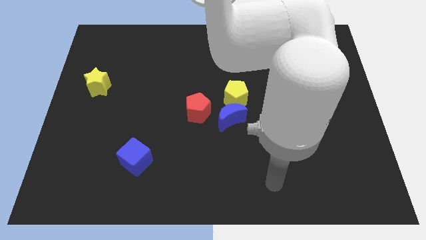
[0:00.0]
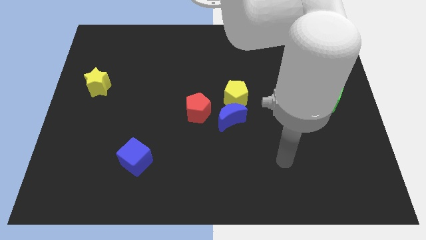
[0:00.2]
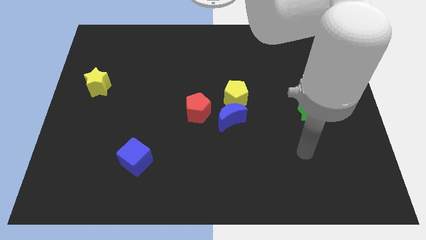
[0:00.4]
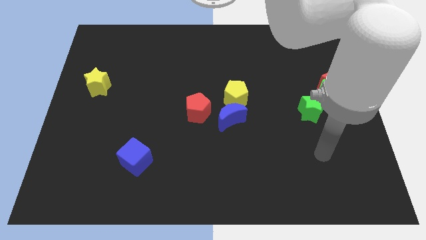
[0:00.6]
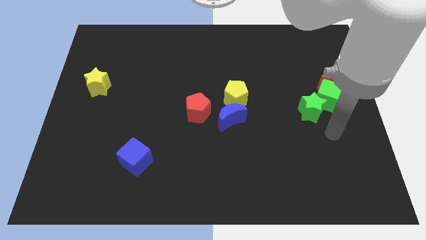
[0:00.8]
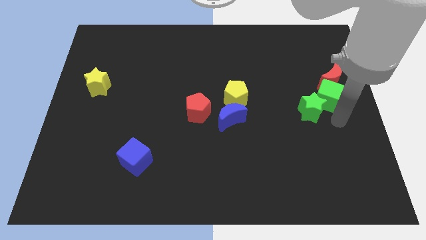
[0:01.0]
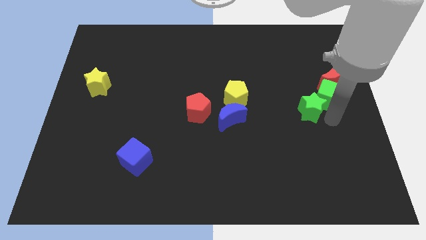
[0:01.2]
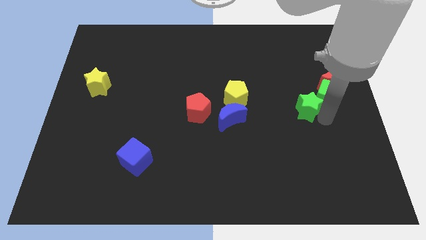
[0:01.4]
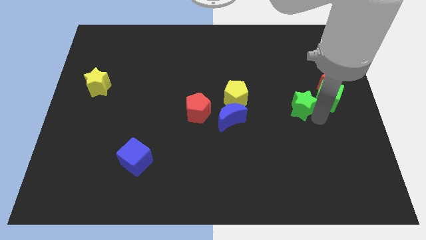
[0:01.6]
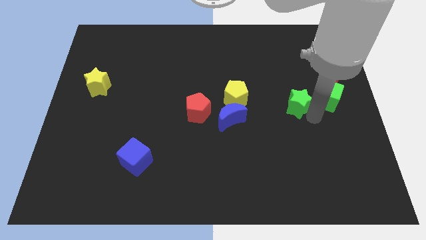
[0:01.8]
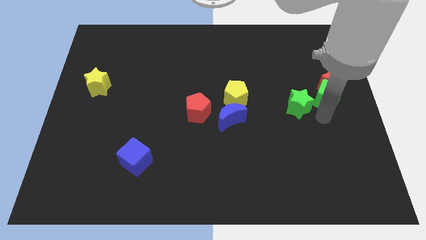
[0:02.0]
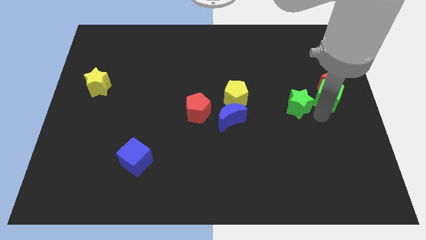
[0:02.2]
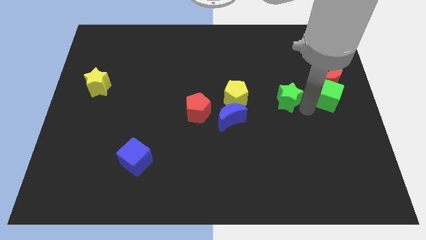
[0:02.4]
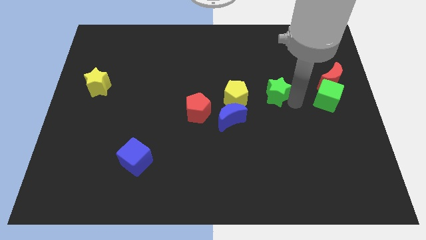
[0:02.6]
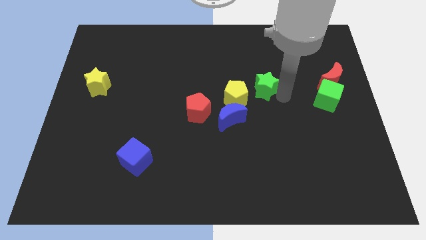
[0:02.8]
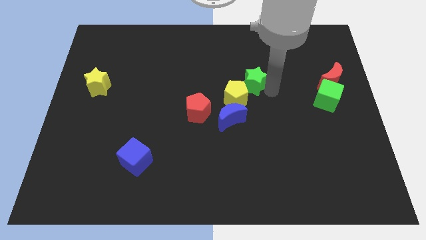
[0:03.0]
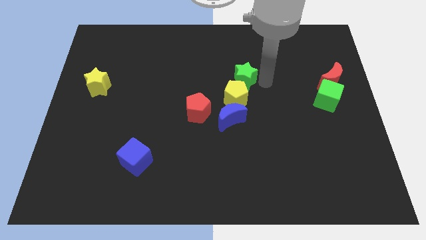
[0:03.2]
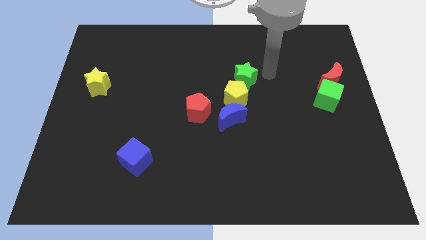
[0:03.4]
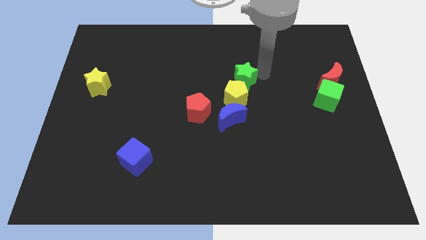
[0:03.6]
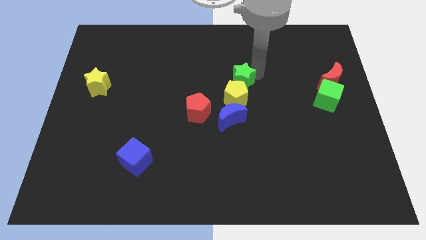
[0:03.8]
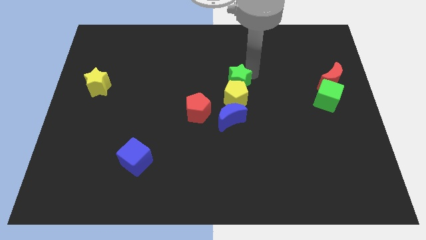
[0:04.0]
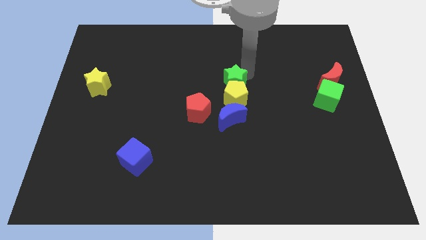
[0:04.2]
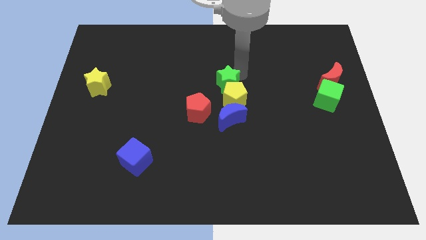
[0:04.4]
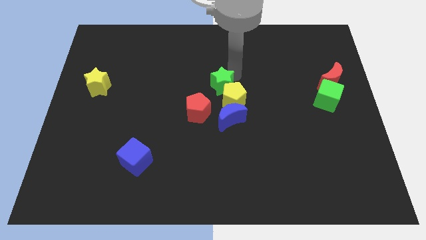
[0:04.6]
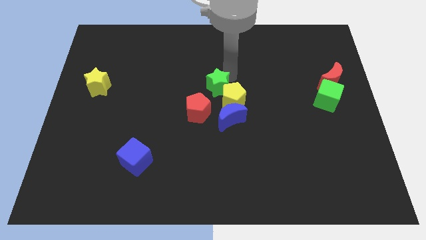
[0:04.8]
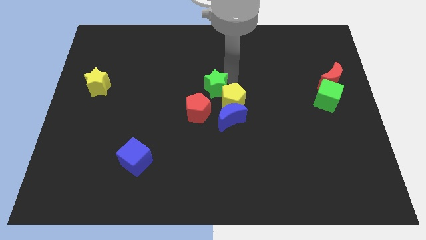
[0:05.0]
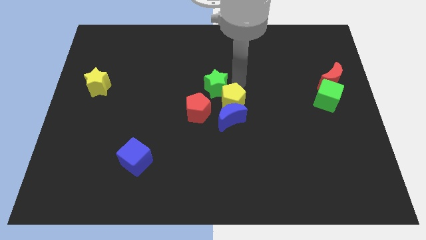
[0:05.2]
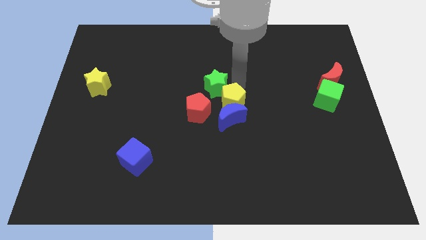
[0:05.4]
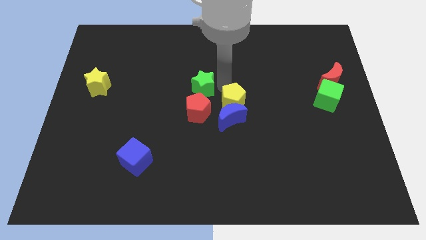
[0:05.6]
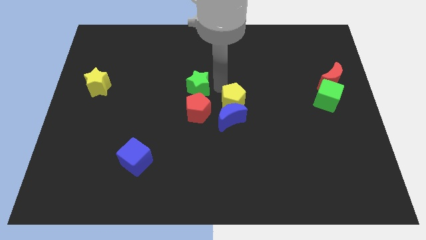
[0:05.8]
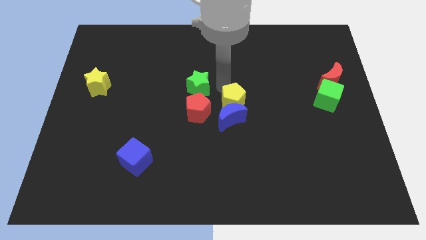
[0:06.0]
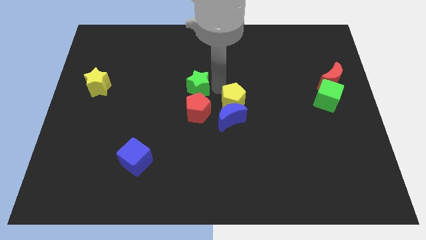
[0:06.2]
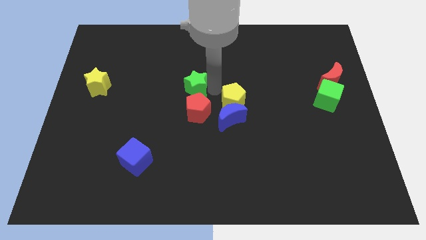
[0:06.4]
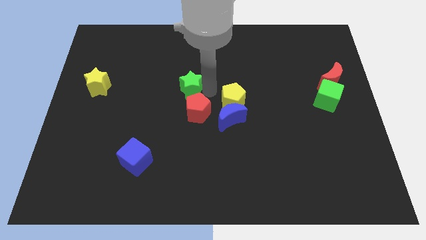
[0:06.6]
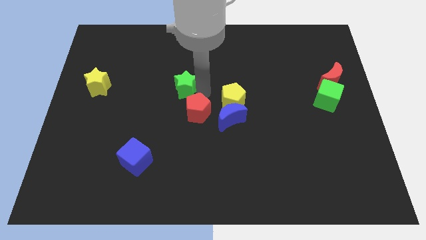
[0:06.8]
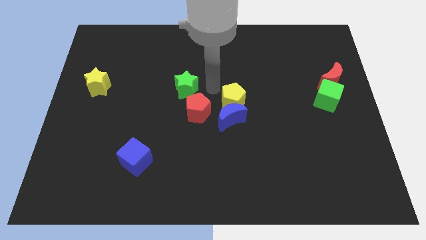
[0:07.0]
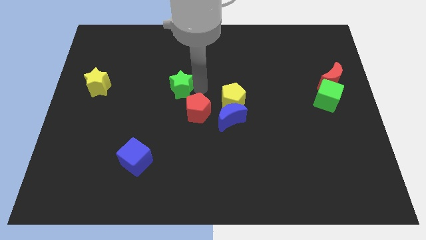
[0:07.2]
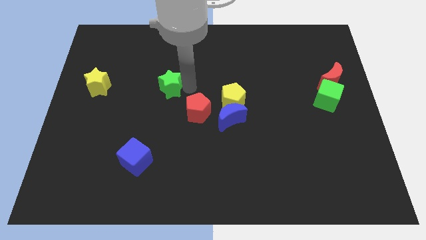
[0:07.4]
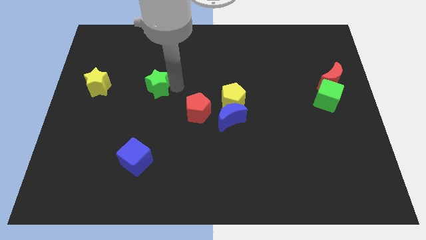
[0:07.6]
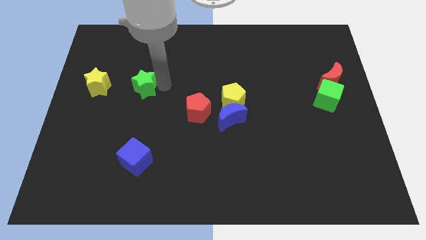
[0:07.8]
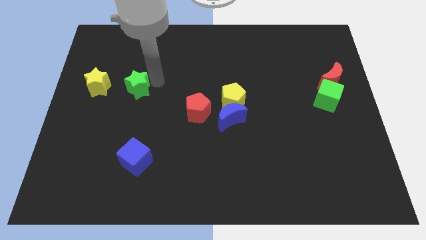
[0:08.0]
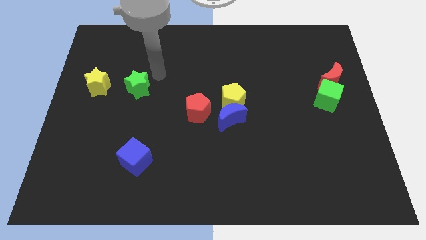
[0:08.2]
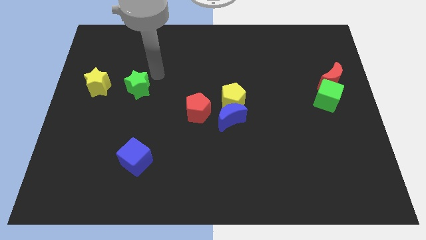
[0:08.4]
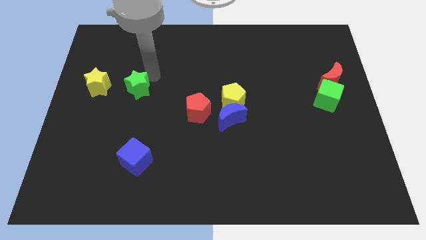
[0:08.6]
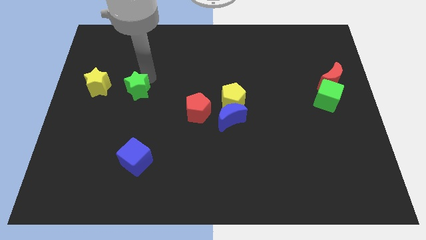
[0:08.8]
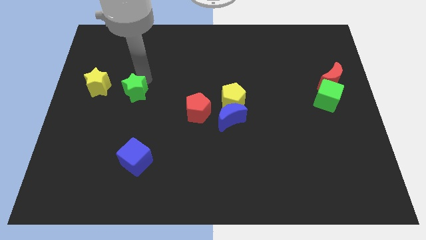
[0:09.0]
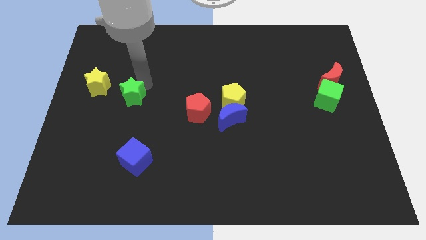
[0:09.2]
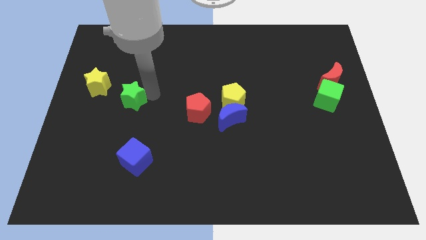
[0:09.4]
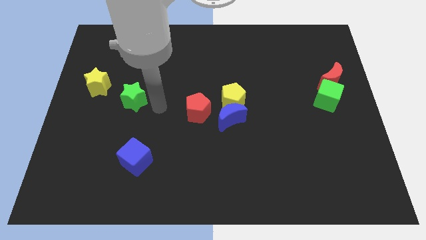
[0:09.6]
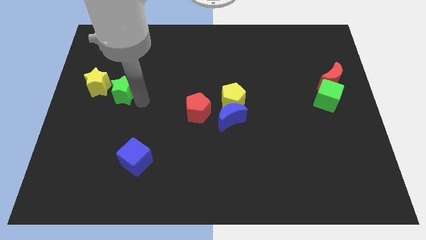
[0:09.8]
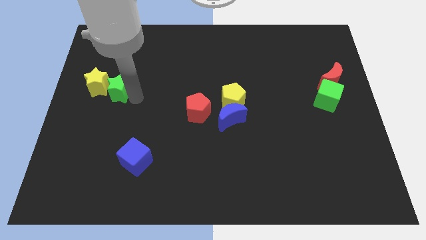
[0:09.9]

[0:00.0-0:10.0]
move the green star towards the yellow star

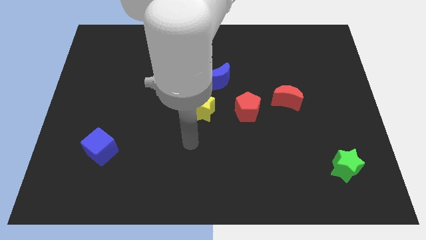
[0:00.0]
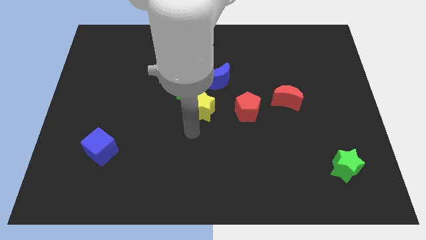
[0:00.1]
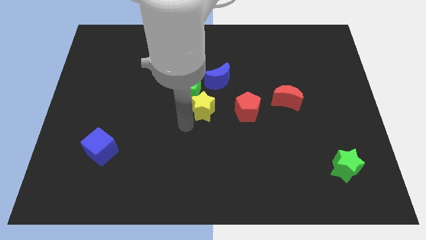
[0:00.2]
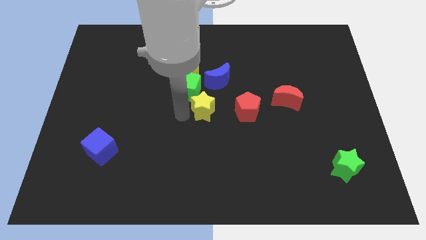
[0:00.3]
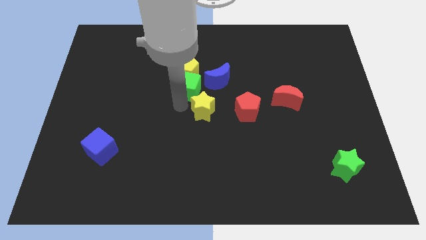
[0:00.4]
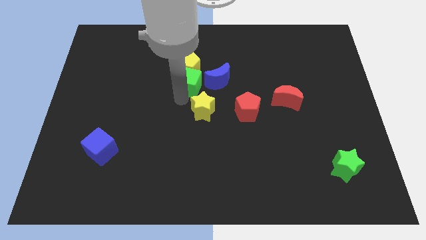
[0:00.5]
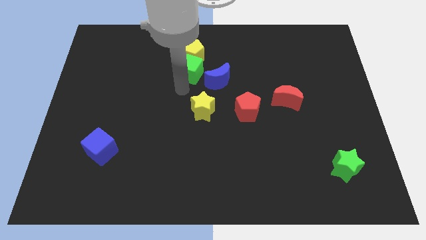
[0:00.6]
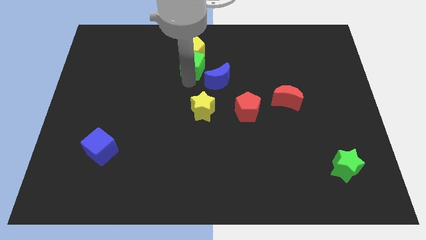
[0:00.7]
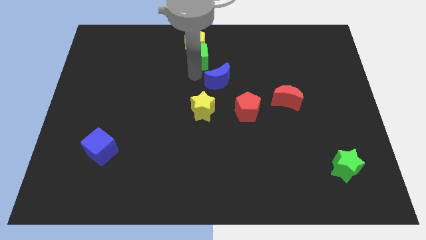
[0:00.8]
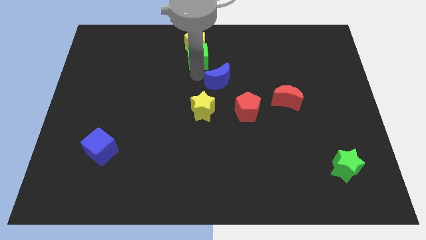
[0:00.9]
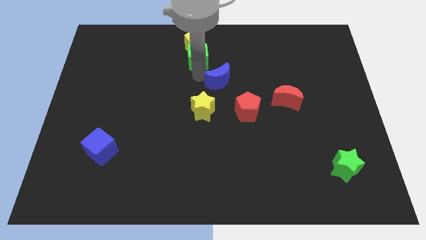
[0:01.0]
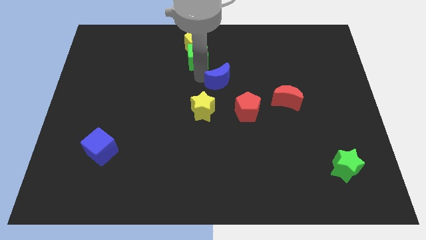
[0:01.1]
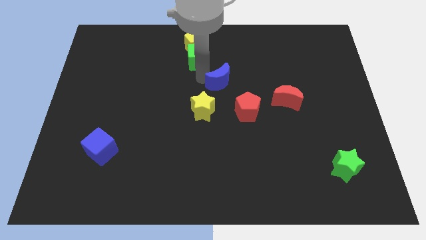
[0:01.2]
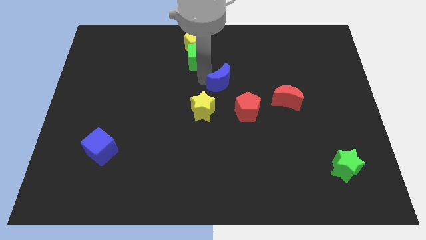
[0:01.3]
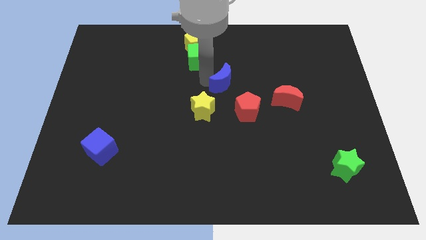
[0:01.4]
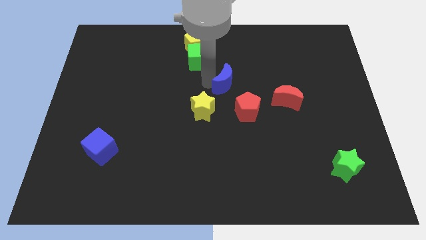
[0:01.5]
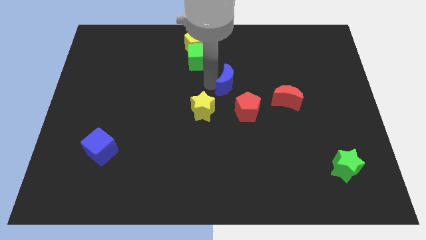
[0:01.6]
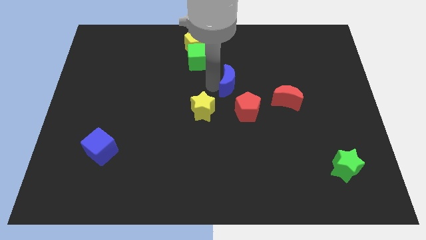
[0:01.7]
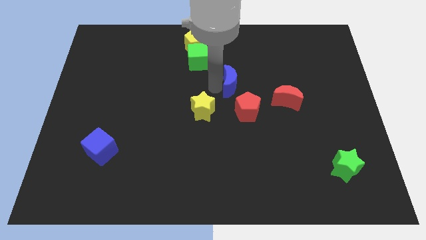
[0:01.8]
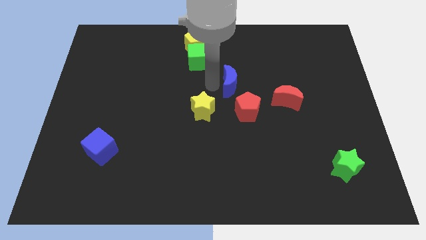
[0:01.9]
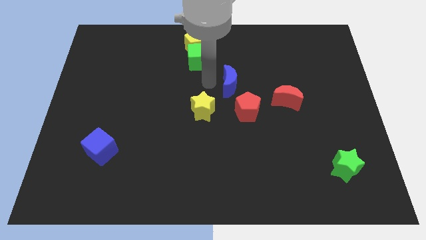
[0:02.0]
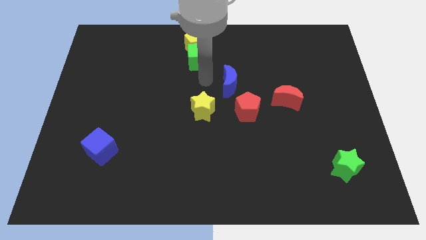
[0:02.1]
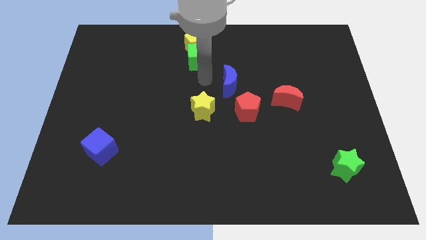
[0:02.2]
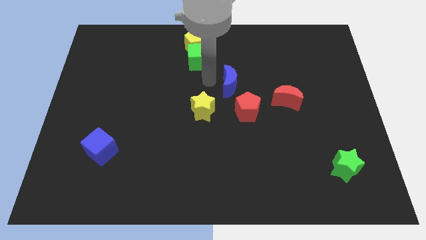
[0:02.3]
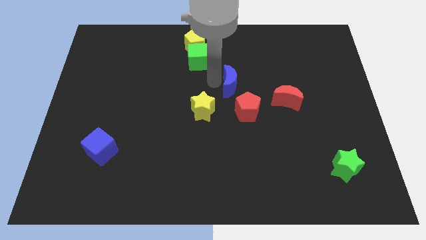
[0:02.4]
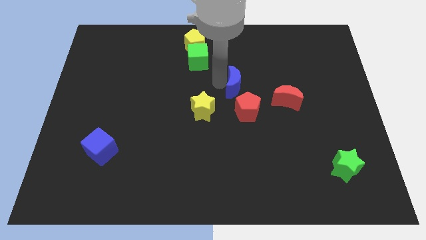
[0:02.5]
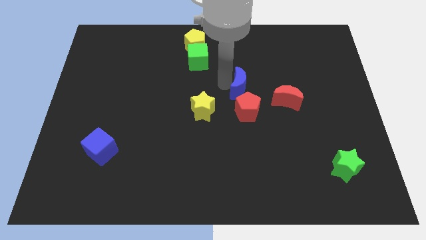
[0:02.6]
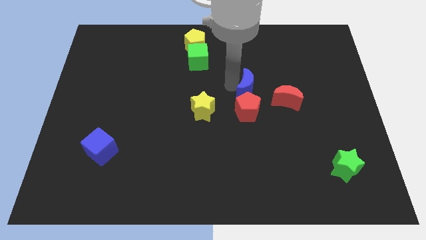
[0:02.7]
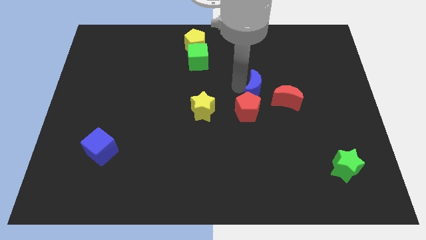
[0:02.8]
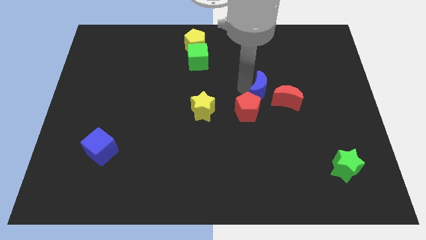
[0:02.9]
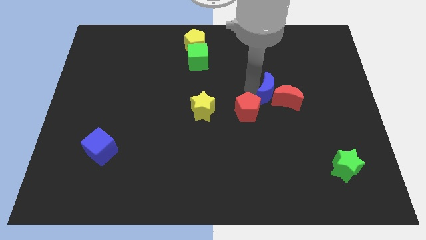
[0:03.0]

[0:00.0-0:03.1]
slide the blue moon close to the red moon
